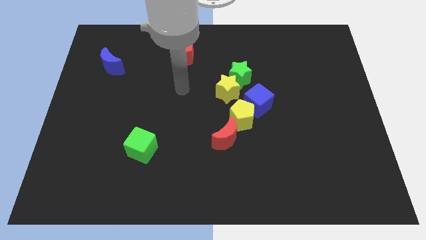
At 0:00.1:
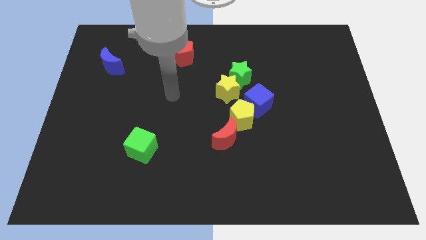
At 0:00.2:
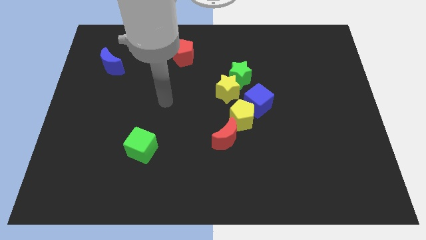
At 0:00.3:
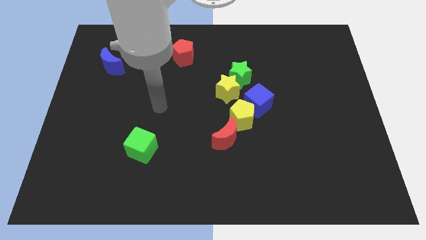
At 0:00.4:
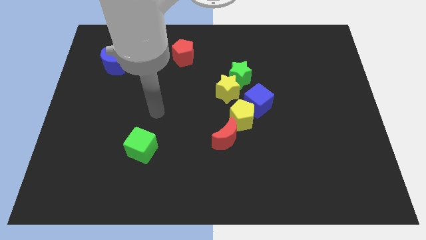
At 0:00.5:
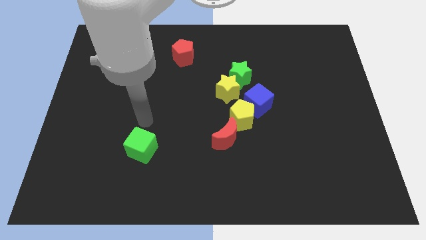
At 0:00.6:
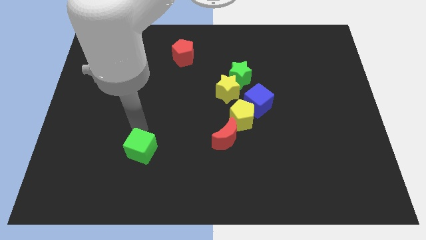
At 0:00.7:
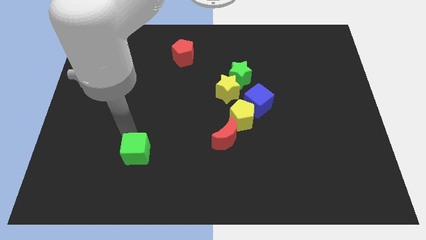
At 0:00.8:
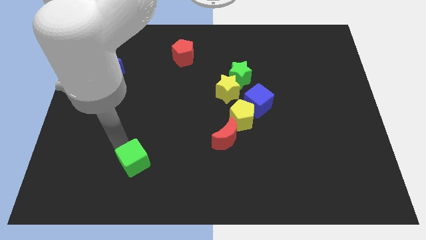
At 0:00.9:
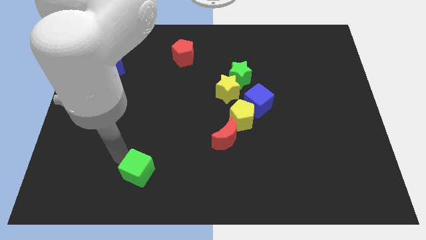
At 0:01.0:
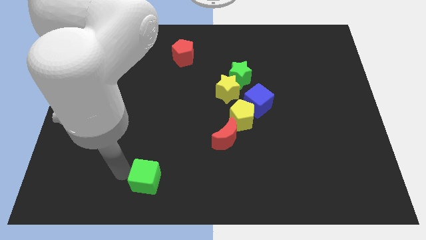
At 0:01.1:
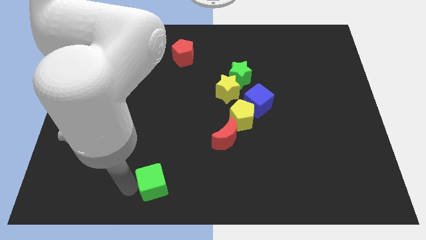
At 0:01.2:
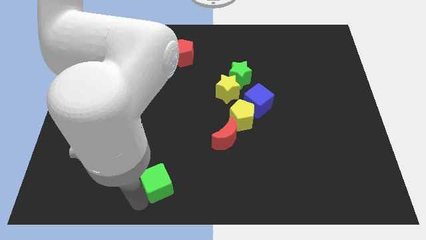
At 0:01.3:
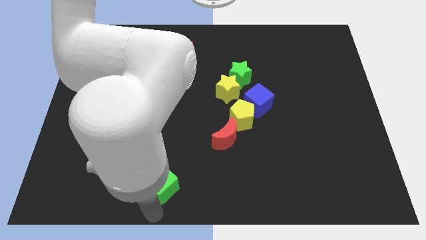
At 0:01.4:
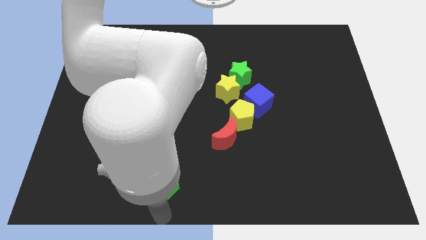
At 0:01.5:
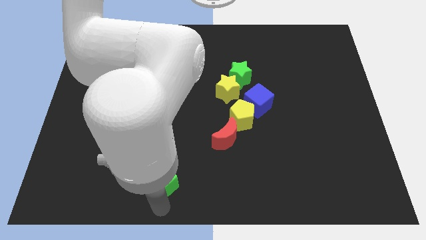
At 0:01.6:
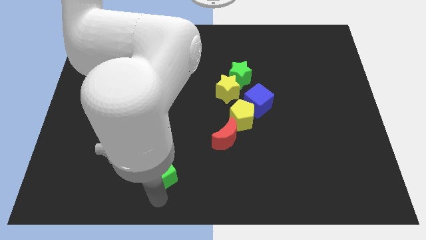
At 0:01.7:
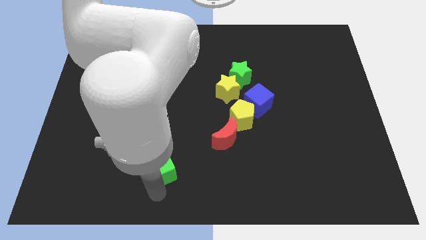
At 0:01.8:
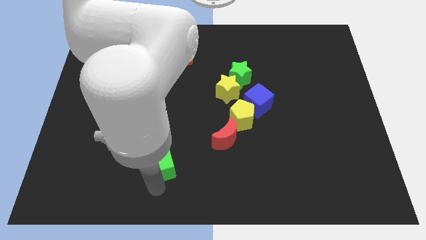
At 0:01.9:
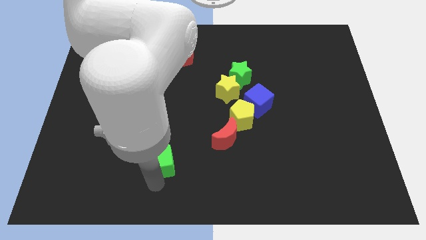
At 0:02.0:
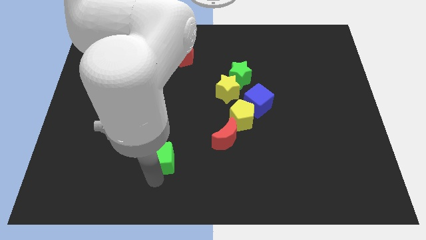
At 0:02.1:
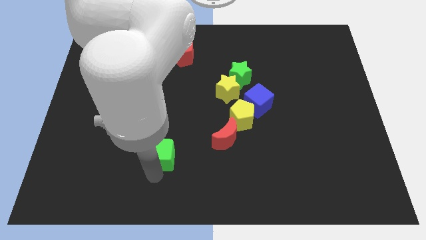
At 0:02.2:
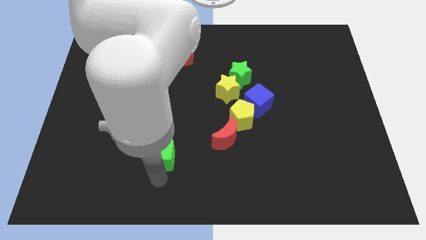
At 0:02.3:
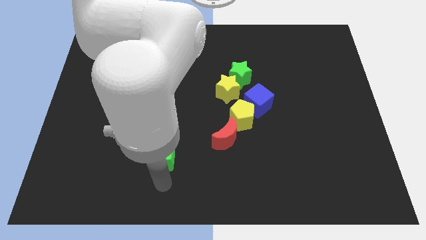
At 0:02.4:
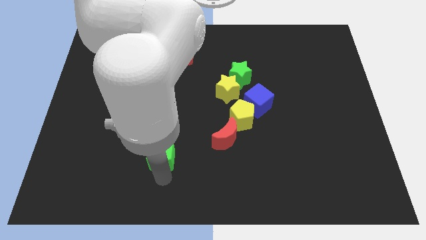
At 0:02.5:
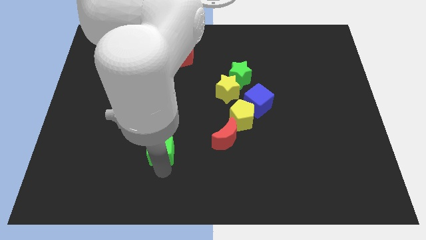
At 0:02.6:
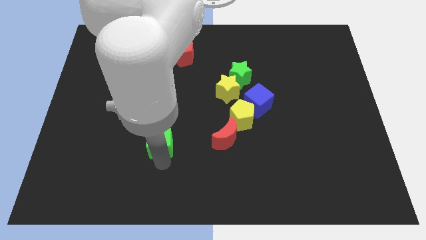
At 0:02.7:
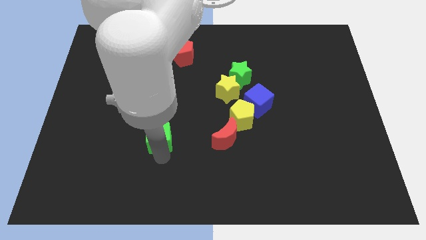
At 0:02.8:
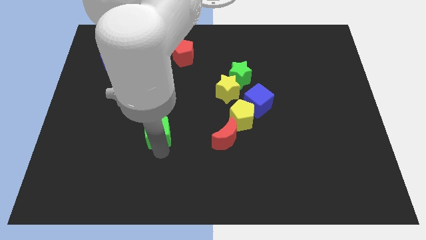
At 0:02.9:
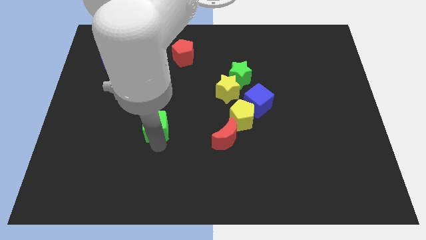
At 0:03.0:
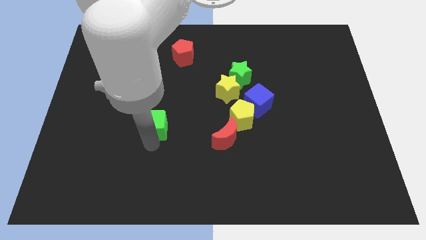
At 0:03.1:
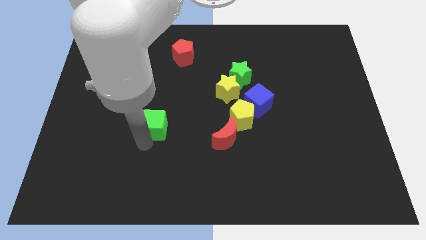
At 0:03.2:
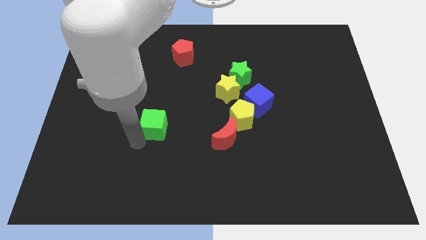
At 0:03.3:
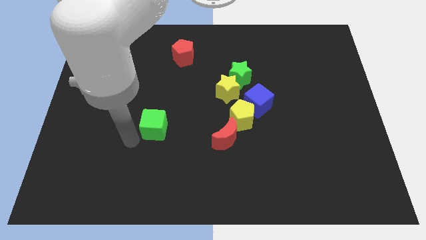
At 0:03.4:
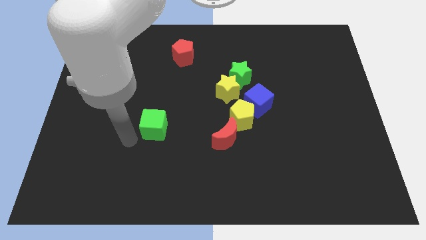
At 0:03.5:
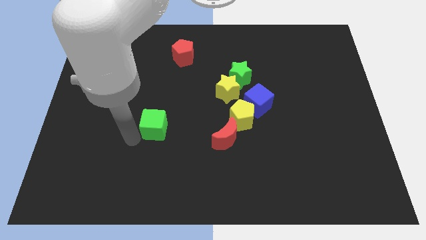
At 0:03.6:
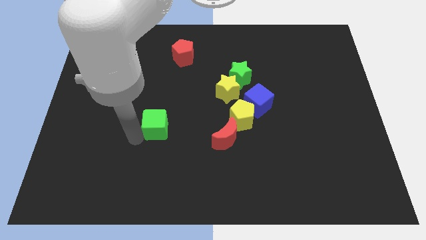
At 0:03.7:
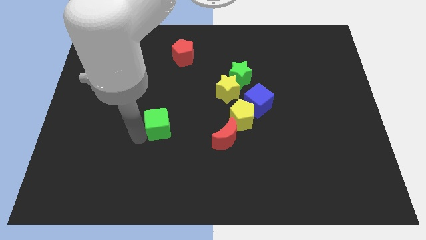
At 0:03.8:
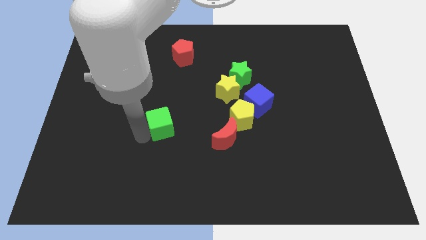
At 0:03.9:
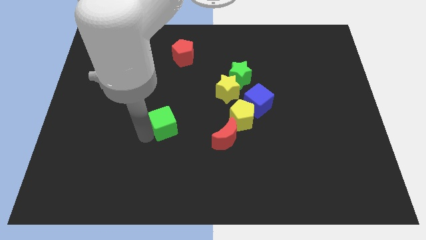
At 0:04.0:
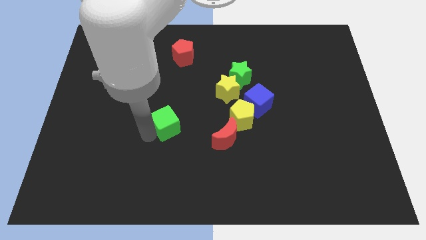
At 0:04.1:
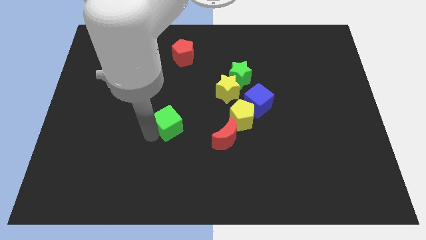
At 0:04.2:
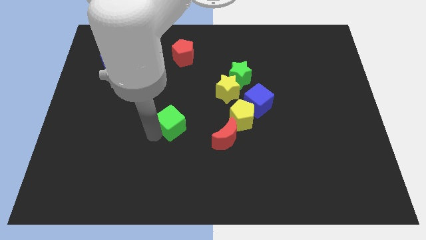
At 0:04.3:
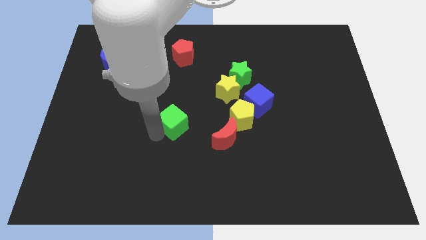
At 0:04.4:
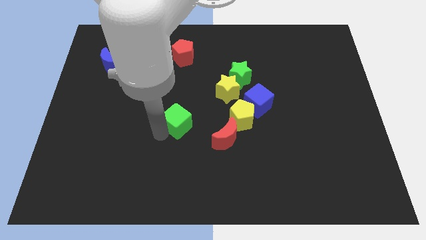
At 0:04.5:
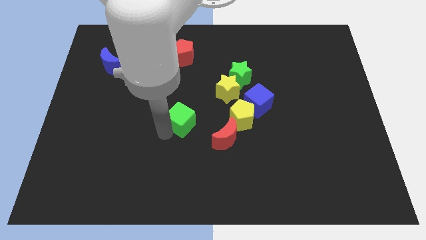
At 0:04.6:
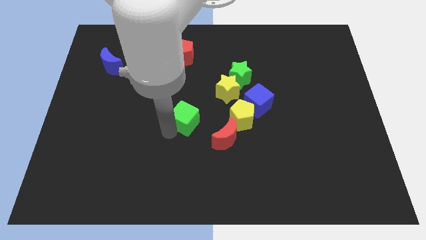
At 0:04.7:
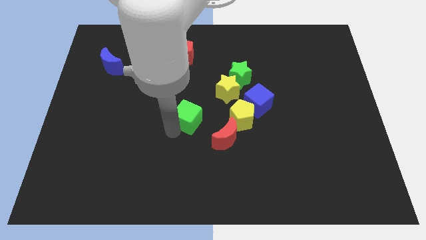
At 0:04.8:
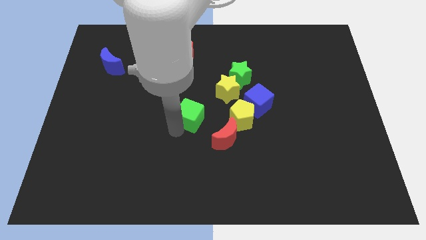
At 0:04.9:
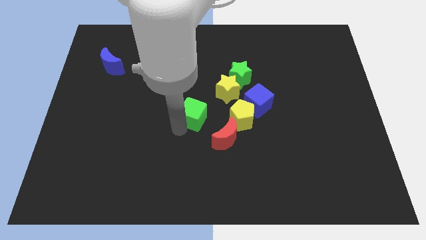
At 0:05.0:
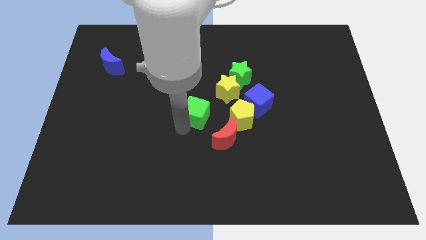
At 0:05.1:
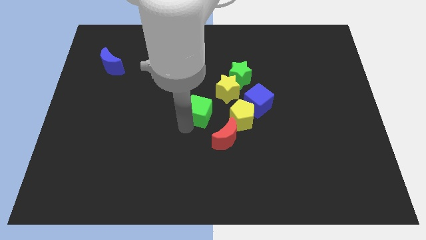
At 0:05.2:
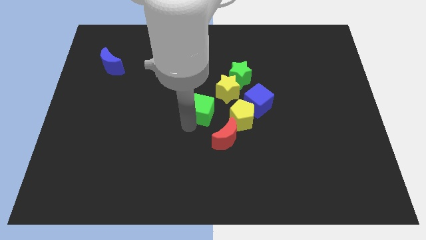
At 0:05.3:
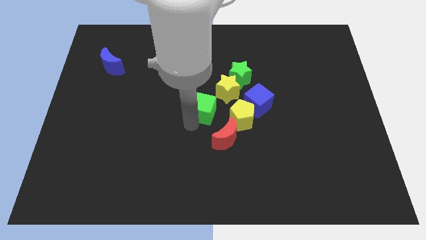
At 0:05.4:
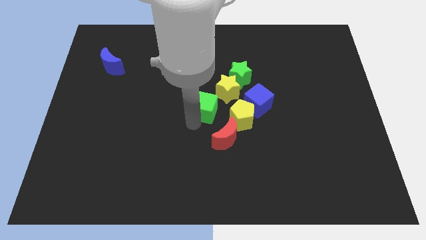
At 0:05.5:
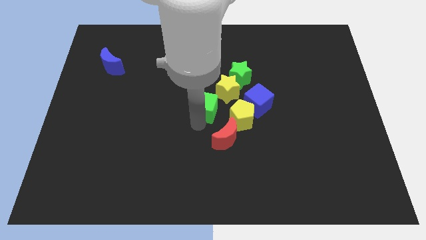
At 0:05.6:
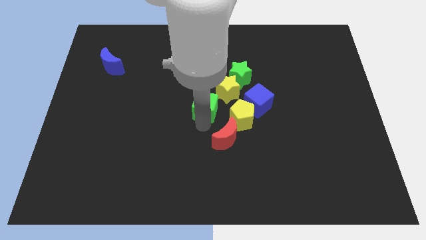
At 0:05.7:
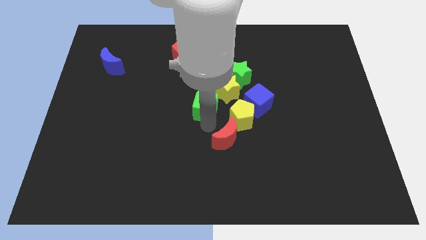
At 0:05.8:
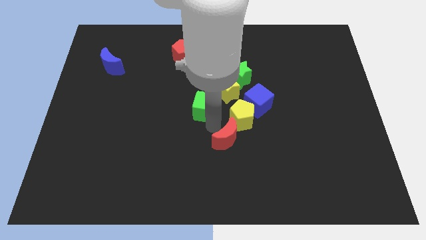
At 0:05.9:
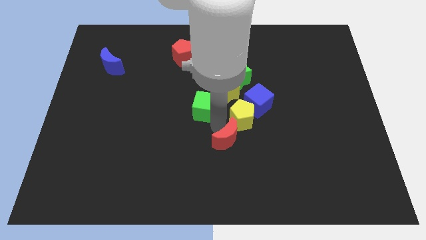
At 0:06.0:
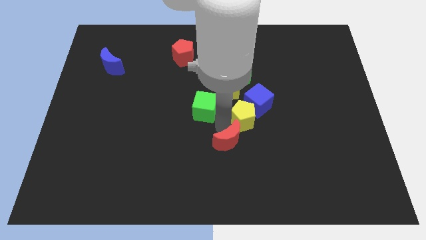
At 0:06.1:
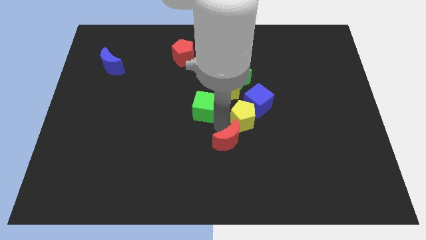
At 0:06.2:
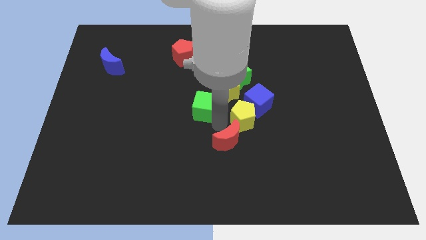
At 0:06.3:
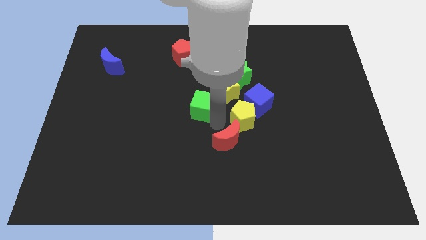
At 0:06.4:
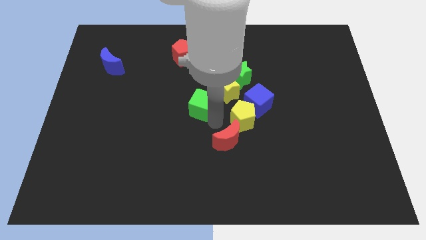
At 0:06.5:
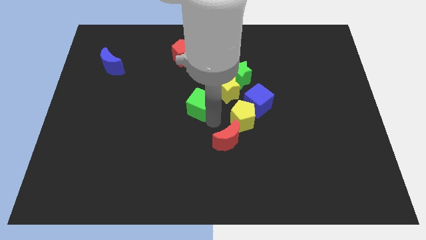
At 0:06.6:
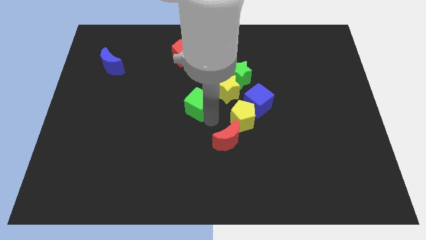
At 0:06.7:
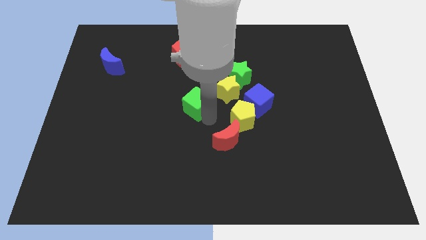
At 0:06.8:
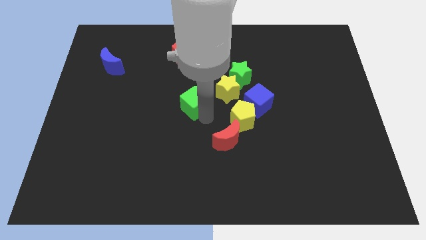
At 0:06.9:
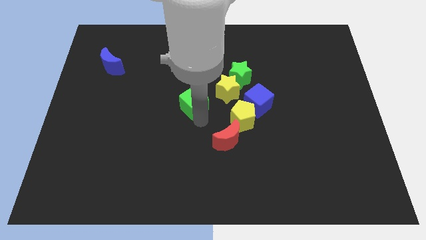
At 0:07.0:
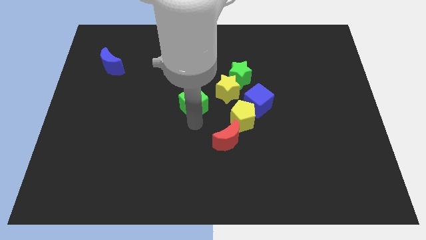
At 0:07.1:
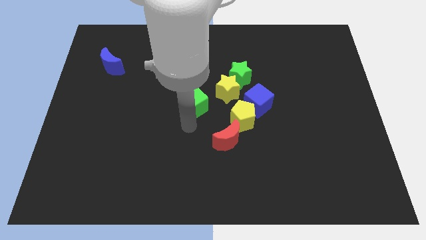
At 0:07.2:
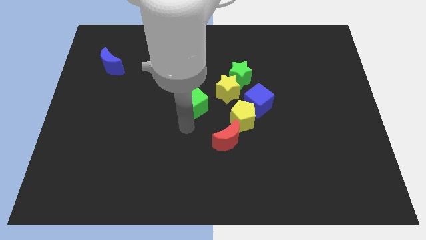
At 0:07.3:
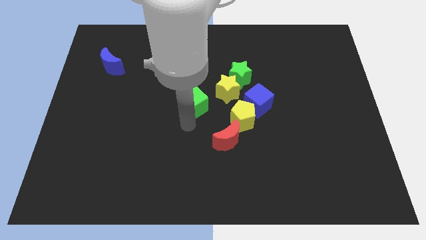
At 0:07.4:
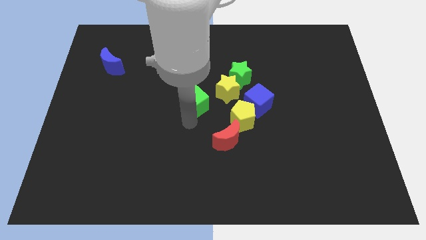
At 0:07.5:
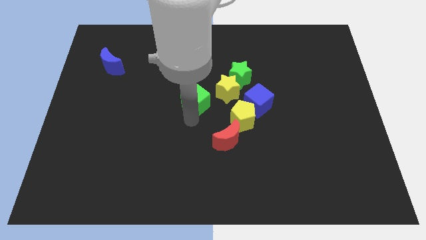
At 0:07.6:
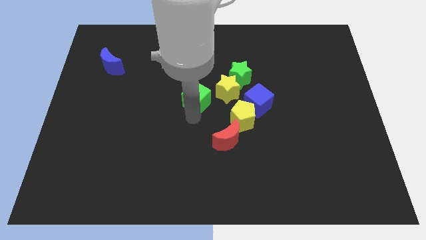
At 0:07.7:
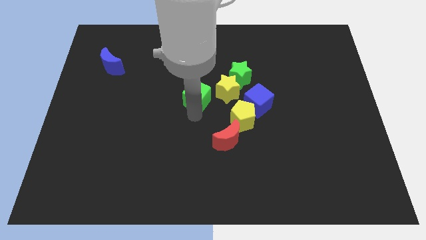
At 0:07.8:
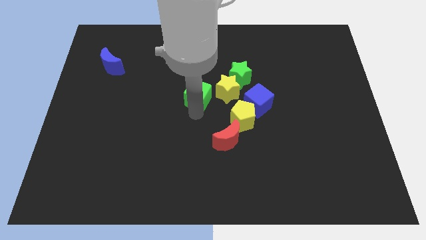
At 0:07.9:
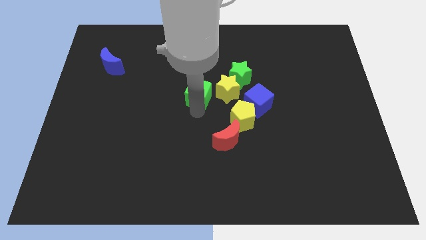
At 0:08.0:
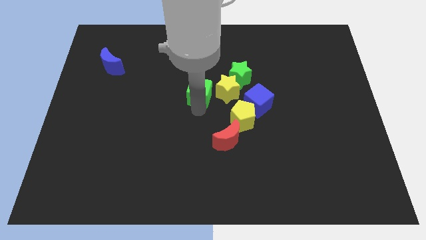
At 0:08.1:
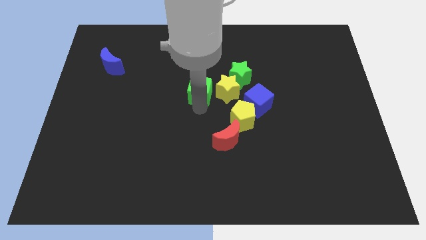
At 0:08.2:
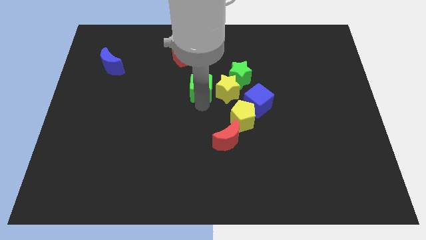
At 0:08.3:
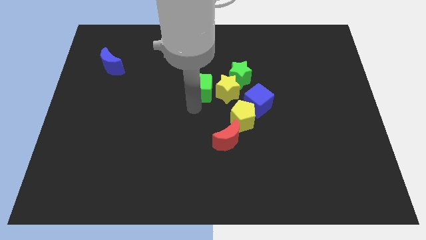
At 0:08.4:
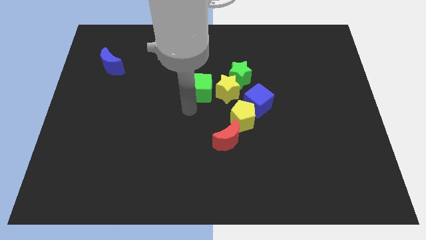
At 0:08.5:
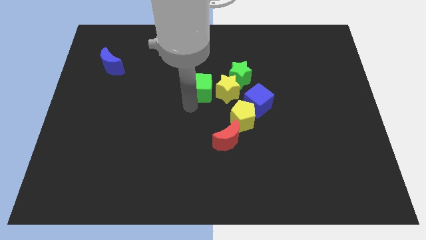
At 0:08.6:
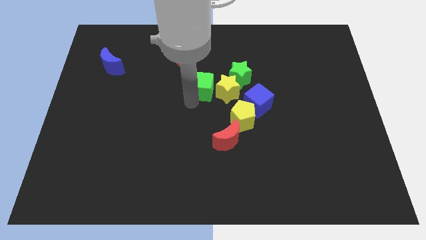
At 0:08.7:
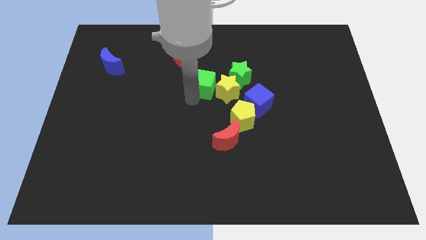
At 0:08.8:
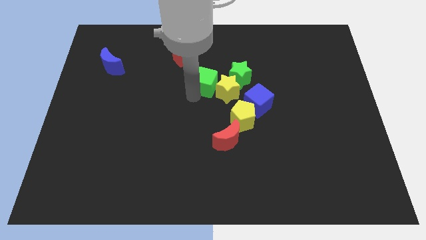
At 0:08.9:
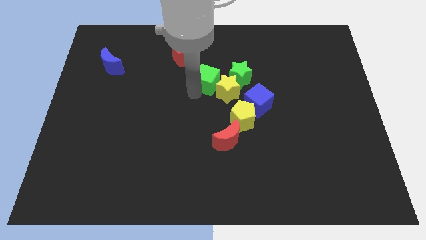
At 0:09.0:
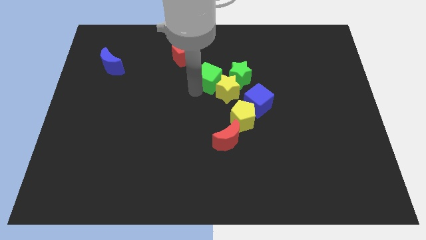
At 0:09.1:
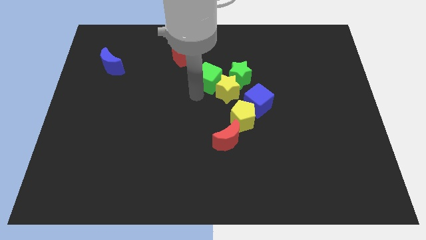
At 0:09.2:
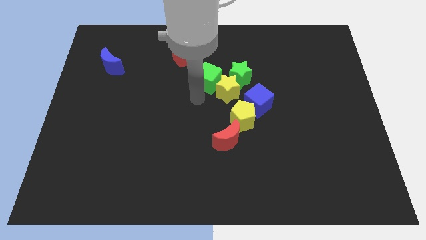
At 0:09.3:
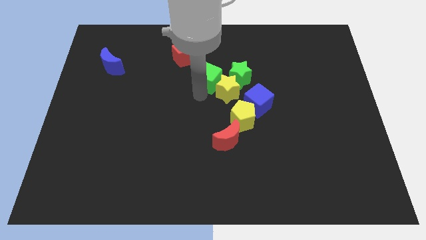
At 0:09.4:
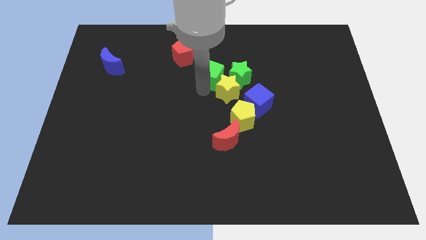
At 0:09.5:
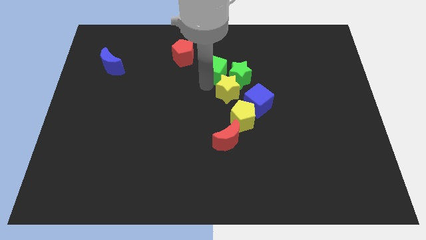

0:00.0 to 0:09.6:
move the green cube diagonally up and to the left of the green star
